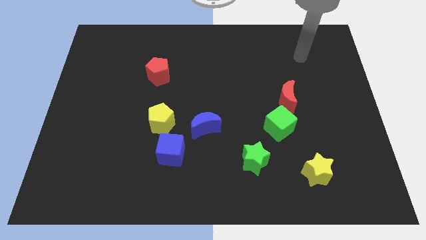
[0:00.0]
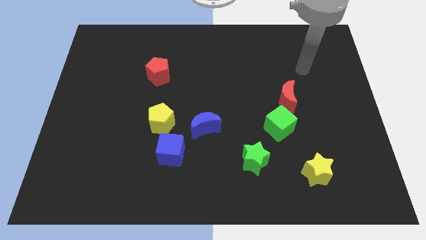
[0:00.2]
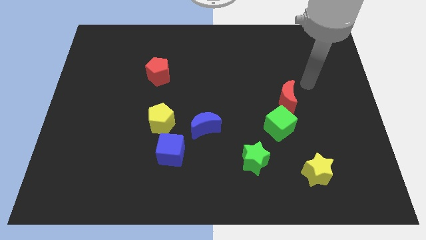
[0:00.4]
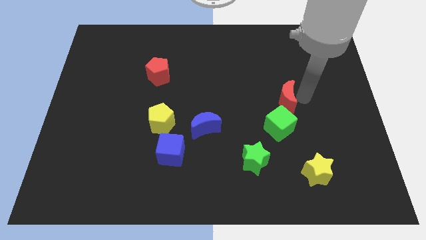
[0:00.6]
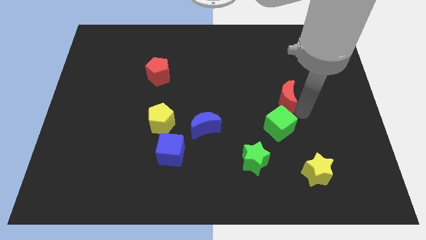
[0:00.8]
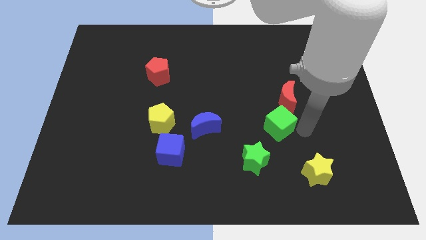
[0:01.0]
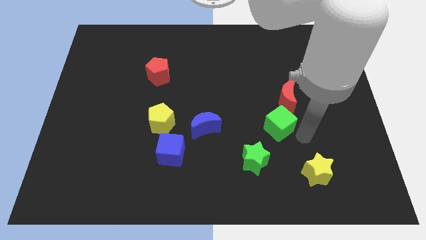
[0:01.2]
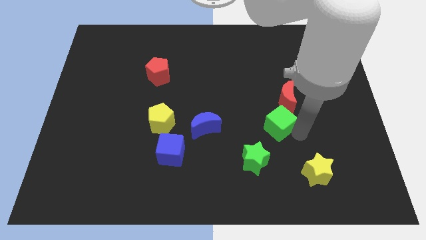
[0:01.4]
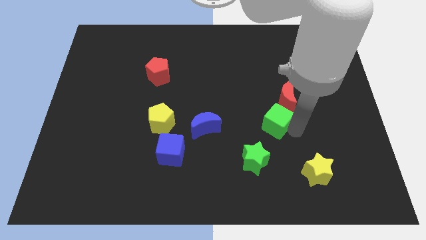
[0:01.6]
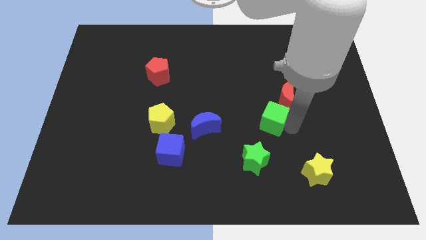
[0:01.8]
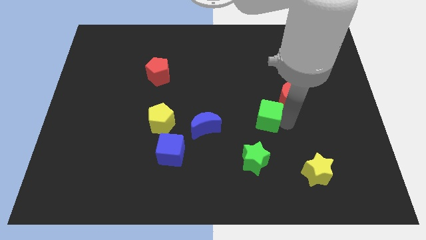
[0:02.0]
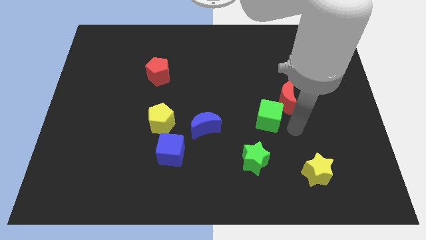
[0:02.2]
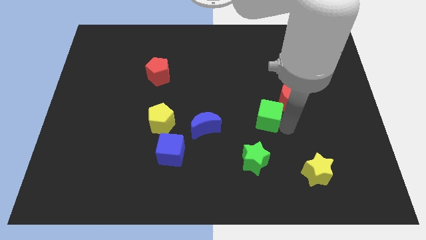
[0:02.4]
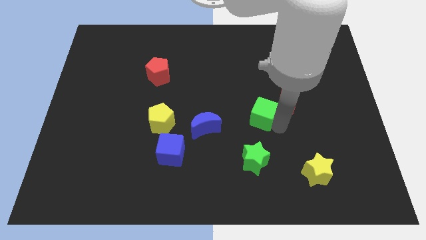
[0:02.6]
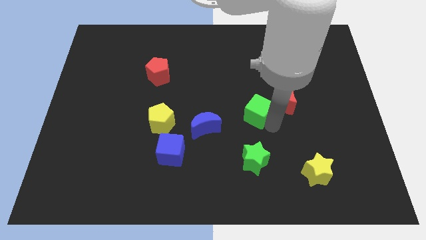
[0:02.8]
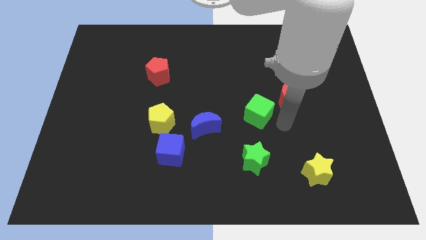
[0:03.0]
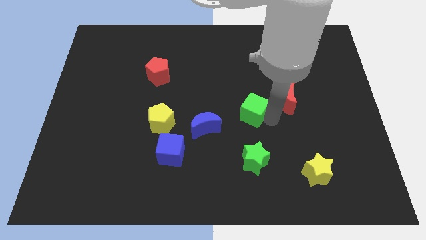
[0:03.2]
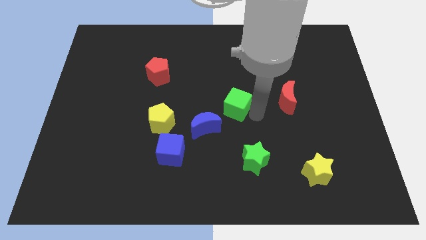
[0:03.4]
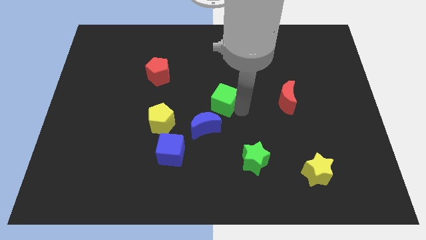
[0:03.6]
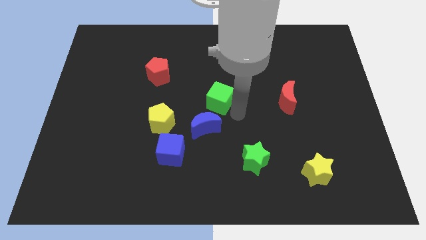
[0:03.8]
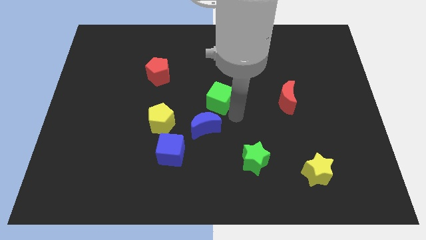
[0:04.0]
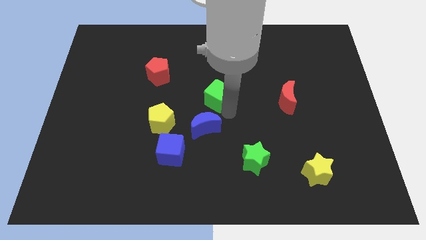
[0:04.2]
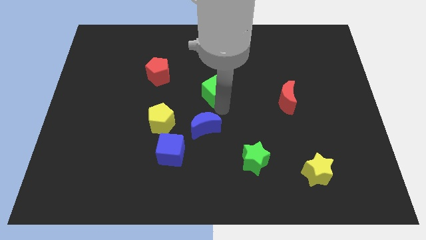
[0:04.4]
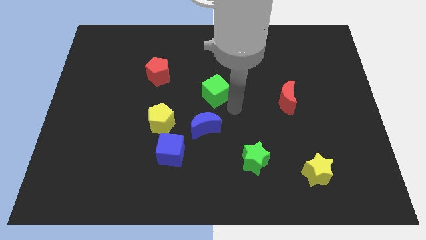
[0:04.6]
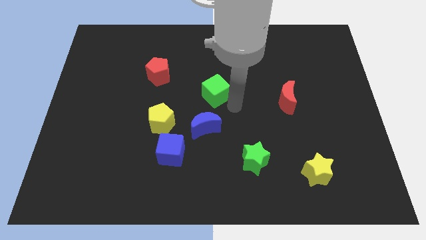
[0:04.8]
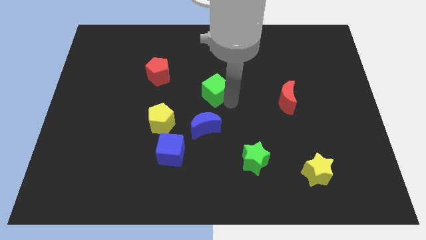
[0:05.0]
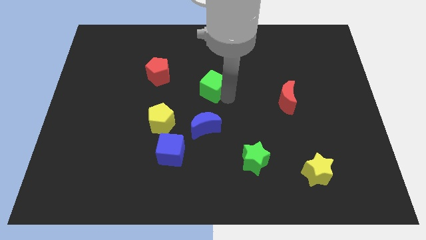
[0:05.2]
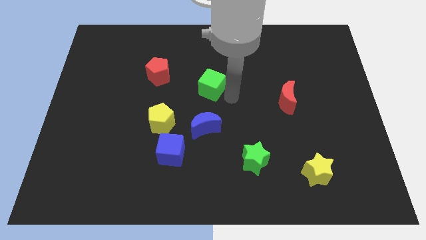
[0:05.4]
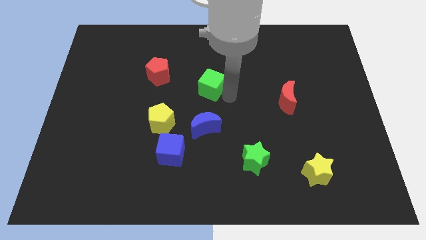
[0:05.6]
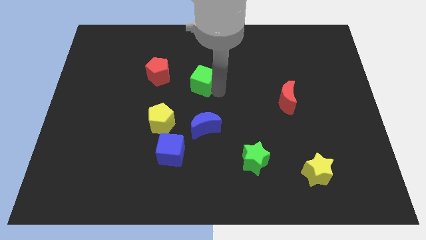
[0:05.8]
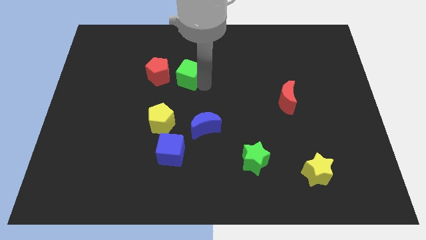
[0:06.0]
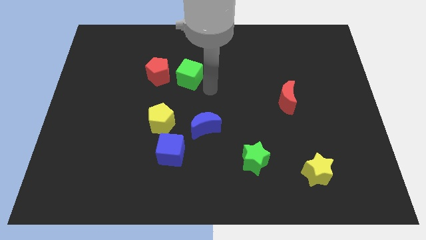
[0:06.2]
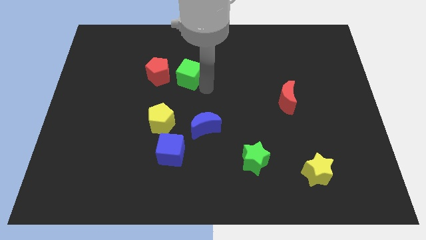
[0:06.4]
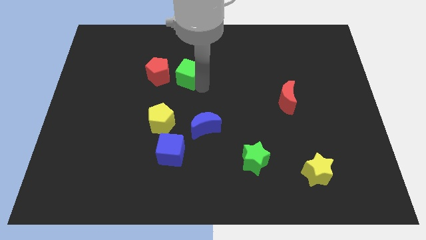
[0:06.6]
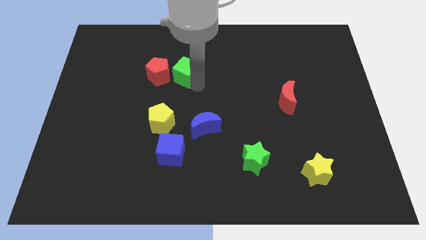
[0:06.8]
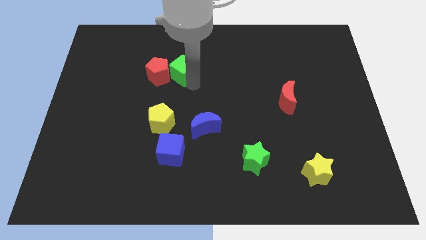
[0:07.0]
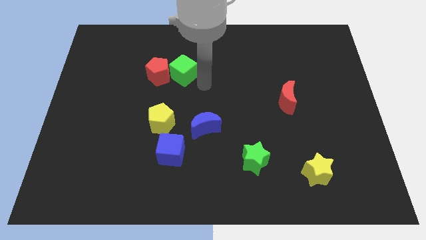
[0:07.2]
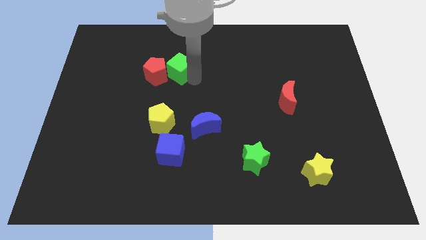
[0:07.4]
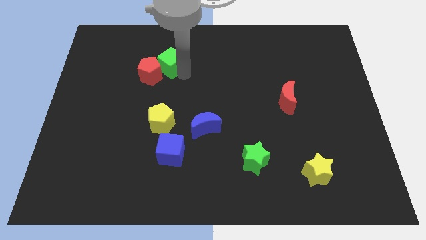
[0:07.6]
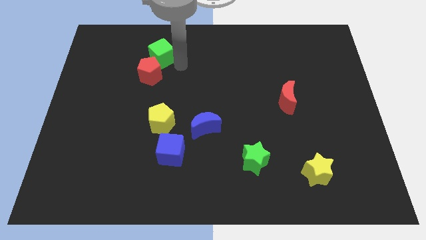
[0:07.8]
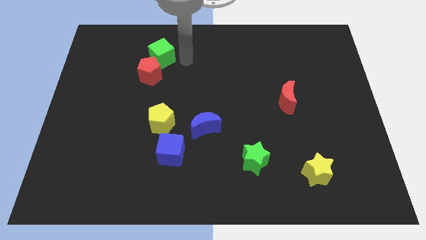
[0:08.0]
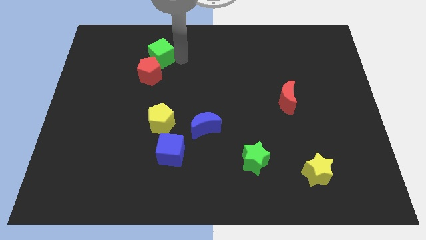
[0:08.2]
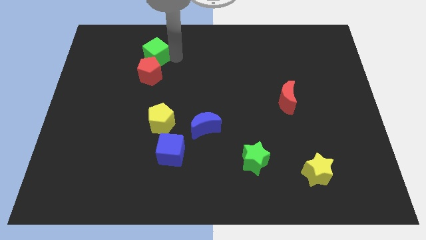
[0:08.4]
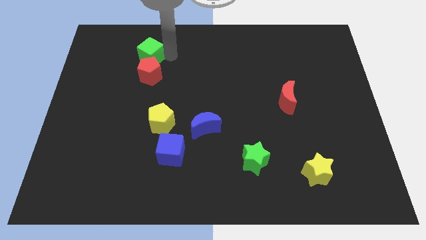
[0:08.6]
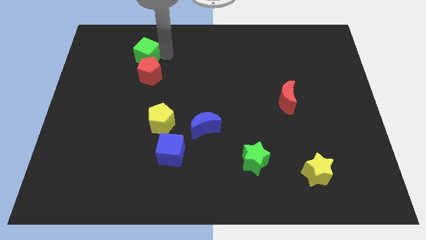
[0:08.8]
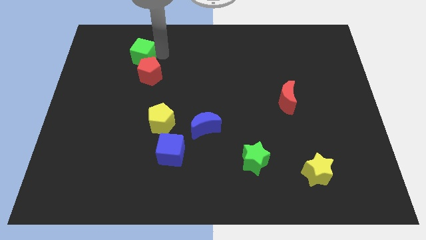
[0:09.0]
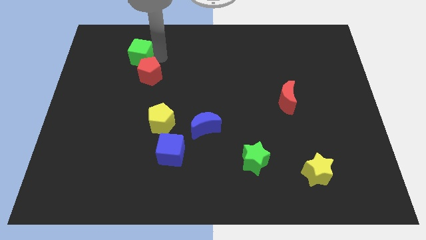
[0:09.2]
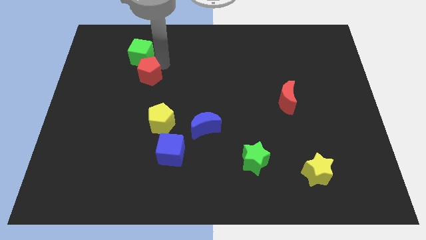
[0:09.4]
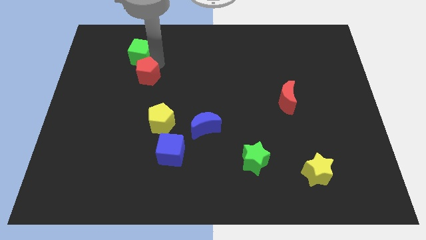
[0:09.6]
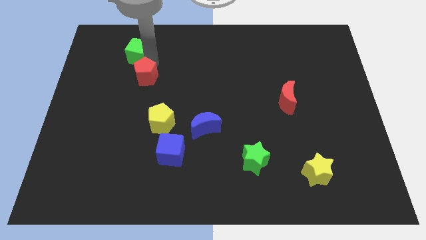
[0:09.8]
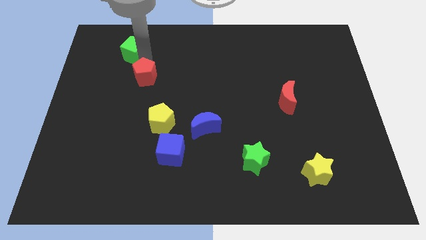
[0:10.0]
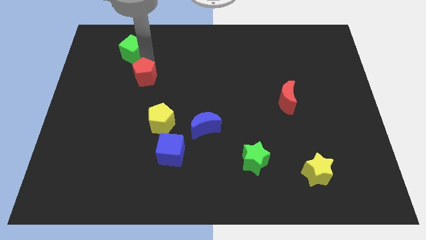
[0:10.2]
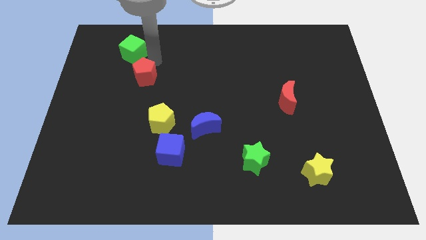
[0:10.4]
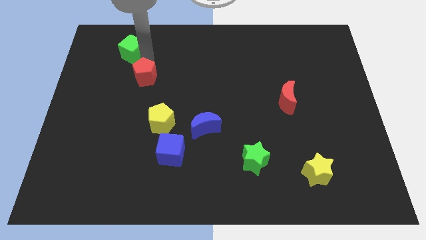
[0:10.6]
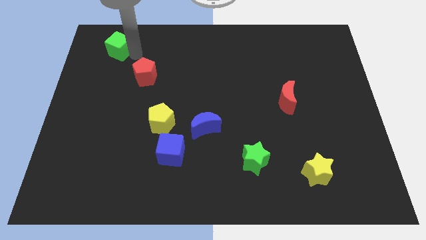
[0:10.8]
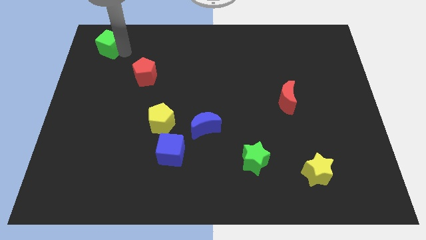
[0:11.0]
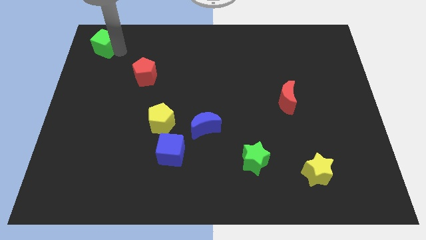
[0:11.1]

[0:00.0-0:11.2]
slide the green cube to the top left corner
